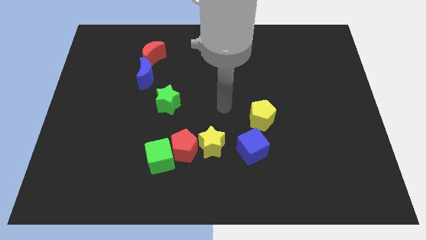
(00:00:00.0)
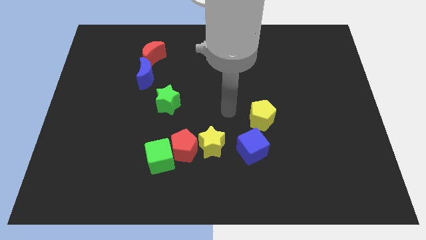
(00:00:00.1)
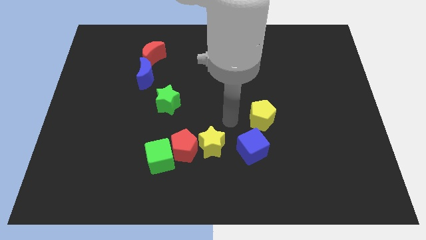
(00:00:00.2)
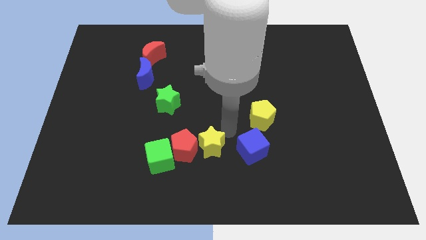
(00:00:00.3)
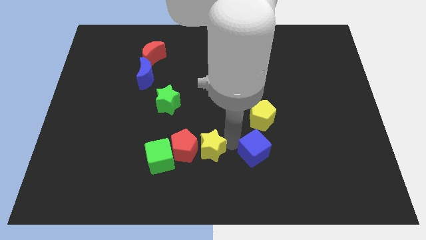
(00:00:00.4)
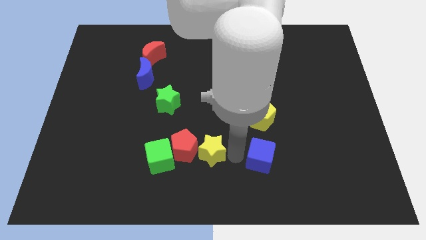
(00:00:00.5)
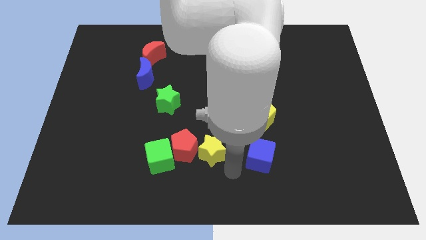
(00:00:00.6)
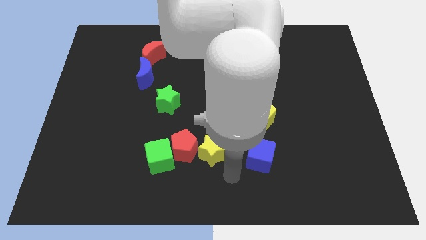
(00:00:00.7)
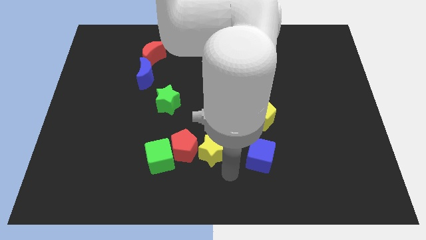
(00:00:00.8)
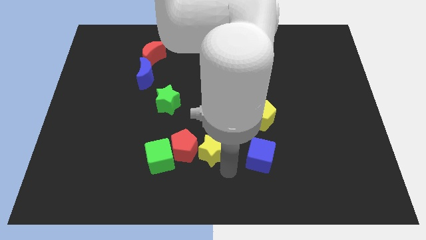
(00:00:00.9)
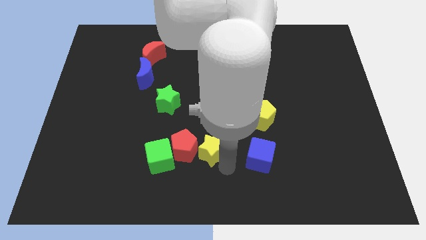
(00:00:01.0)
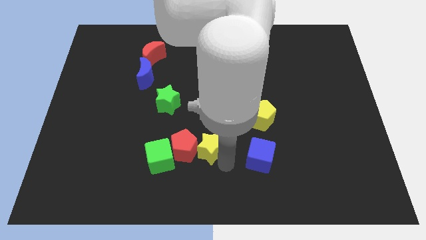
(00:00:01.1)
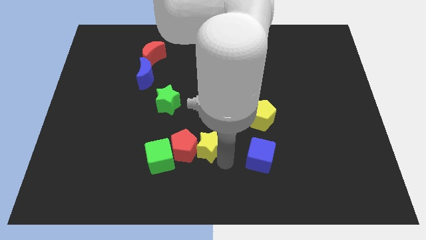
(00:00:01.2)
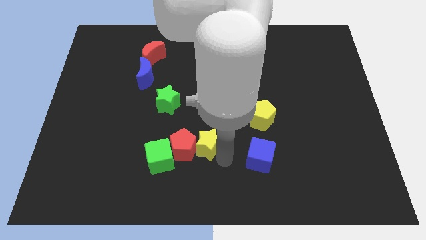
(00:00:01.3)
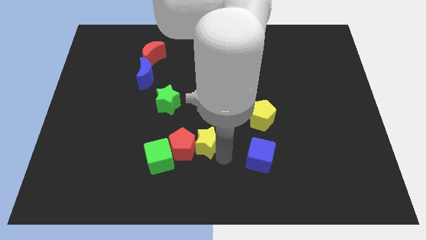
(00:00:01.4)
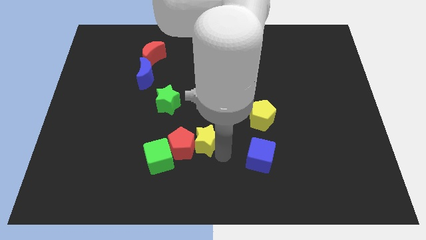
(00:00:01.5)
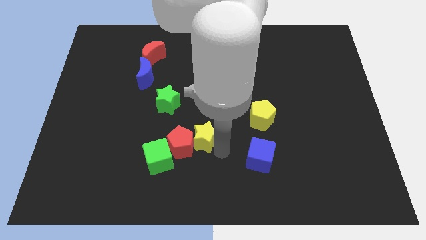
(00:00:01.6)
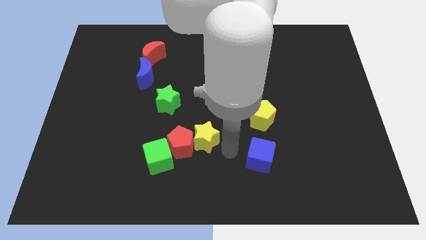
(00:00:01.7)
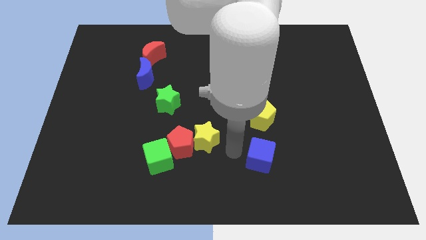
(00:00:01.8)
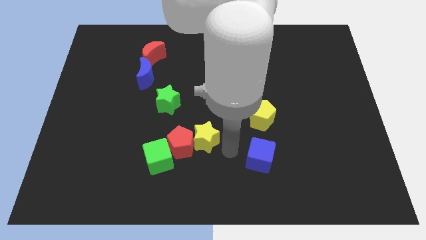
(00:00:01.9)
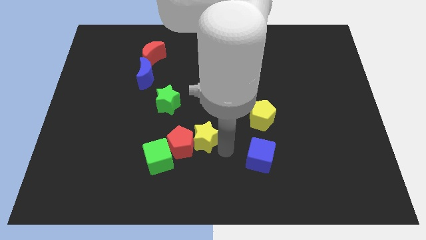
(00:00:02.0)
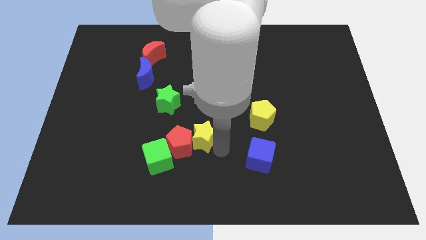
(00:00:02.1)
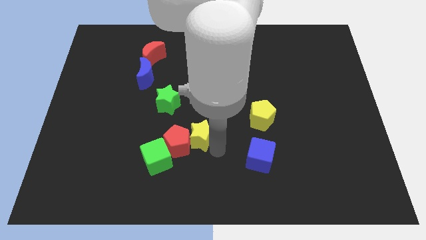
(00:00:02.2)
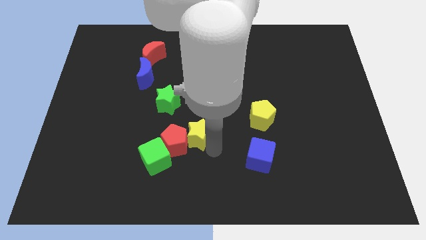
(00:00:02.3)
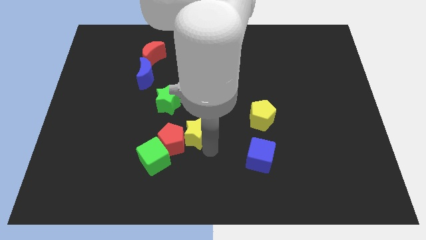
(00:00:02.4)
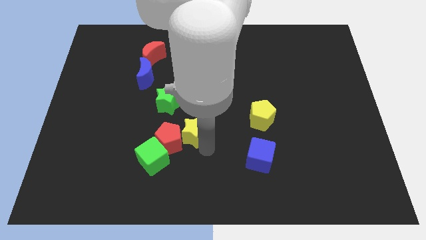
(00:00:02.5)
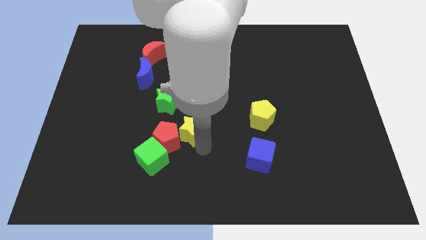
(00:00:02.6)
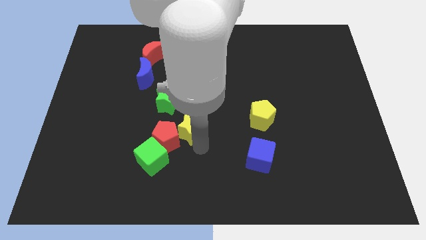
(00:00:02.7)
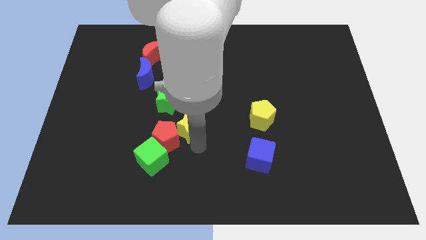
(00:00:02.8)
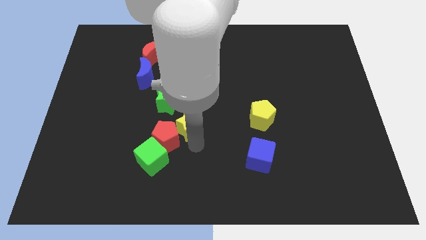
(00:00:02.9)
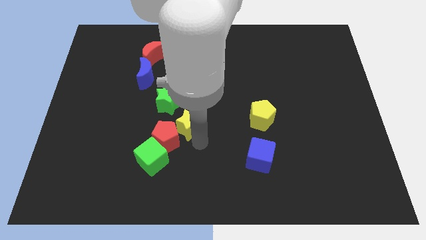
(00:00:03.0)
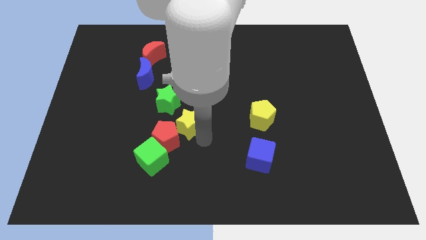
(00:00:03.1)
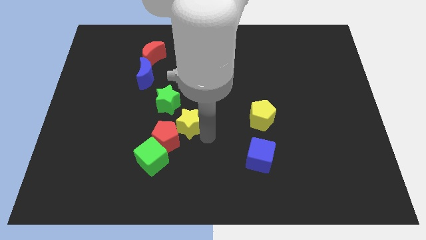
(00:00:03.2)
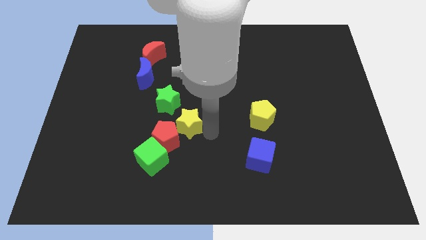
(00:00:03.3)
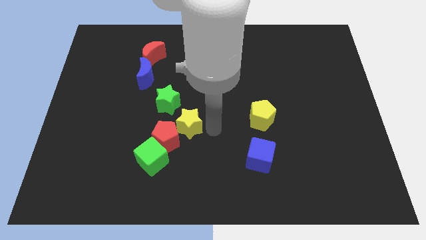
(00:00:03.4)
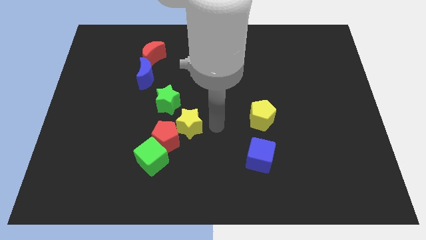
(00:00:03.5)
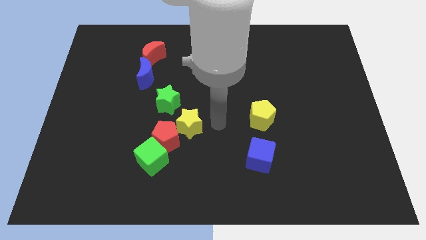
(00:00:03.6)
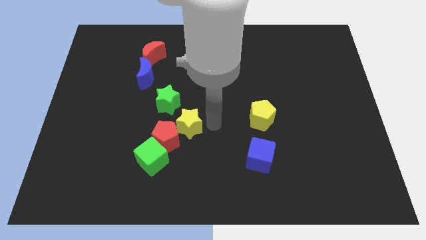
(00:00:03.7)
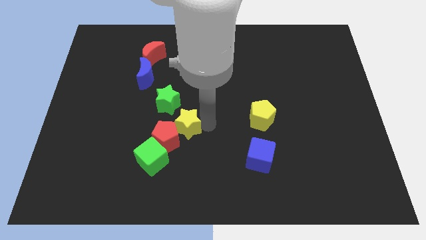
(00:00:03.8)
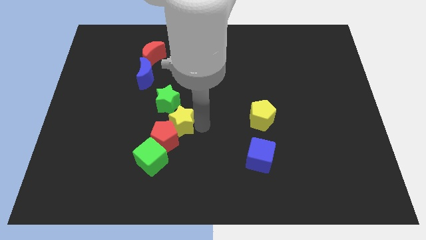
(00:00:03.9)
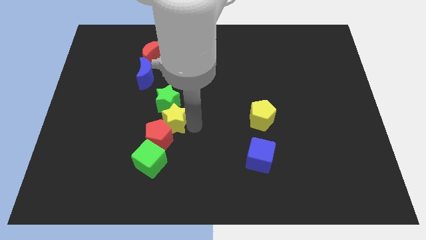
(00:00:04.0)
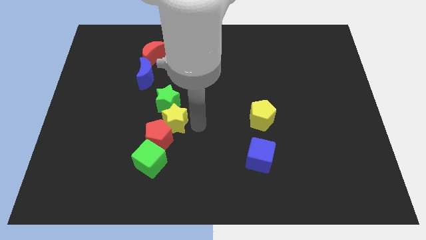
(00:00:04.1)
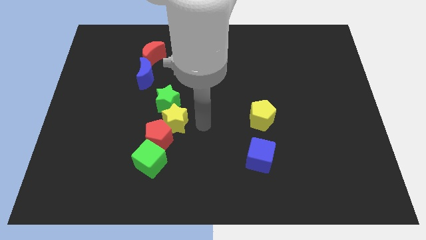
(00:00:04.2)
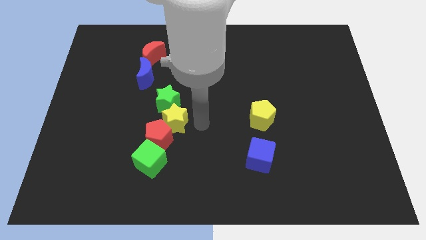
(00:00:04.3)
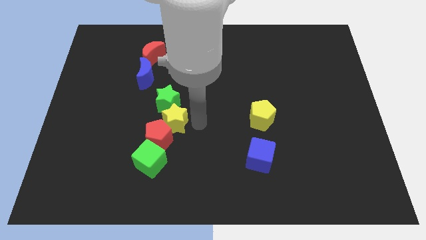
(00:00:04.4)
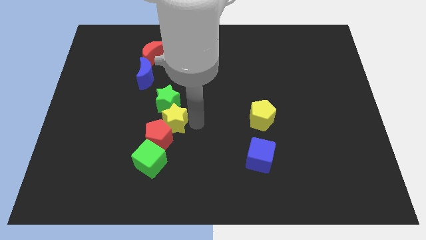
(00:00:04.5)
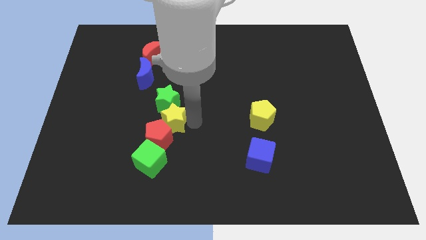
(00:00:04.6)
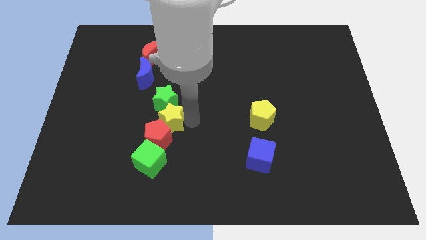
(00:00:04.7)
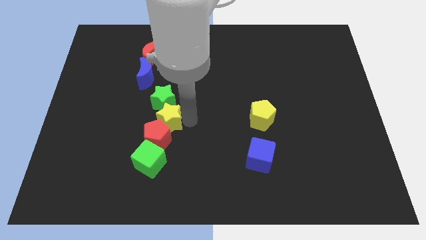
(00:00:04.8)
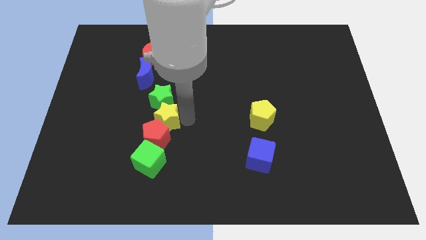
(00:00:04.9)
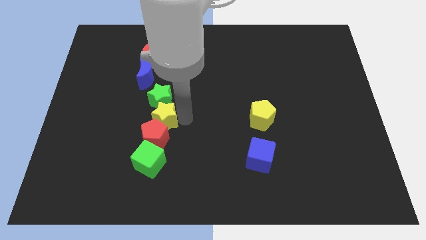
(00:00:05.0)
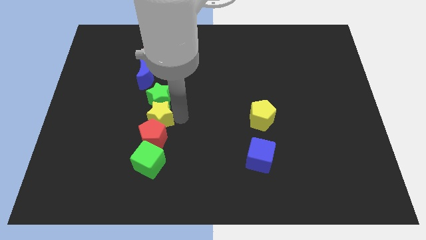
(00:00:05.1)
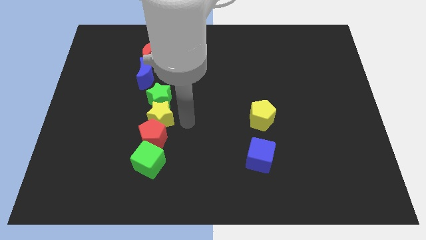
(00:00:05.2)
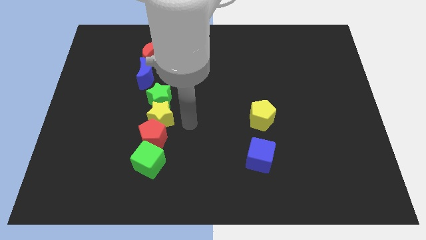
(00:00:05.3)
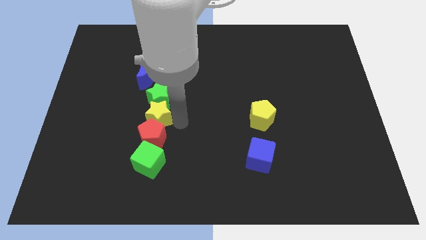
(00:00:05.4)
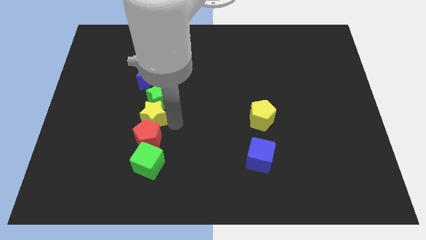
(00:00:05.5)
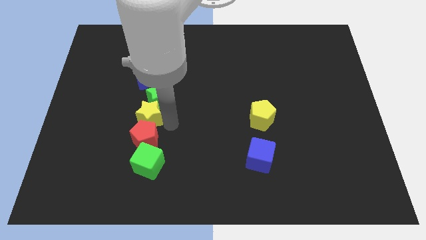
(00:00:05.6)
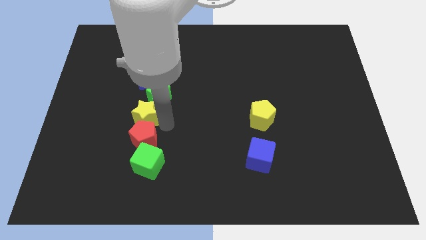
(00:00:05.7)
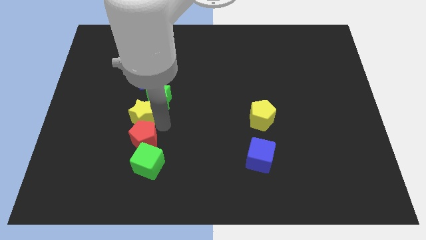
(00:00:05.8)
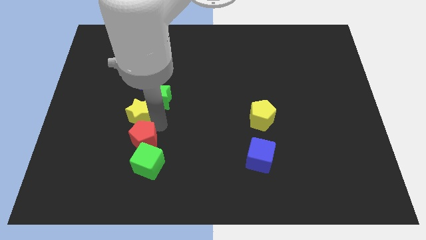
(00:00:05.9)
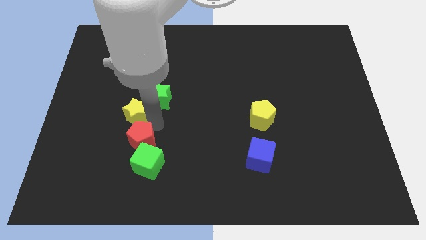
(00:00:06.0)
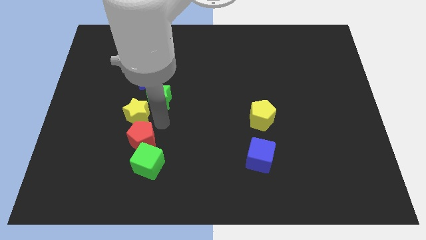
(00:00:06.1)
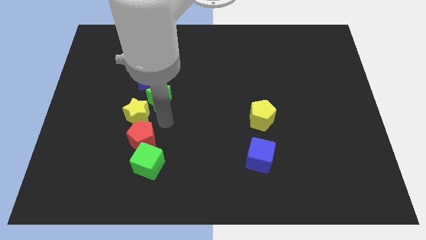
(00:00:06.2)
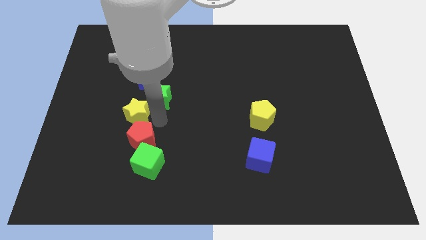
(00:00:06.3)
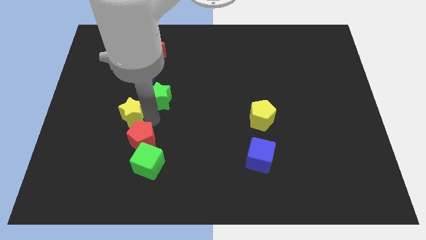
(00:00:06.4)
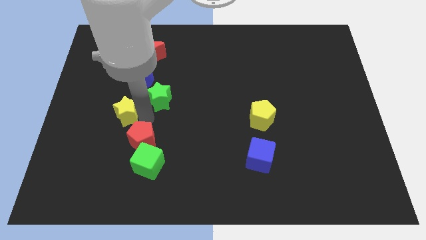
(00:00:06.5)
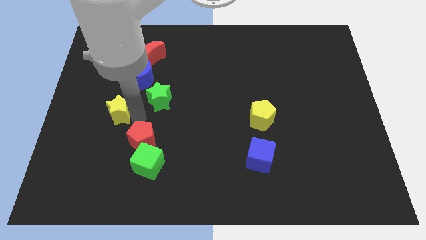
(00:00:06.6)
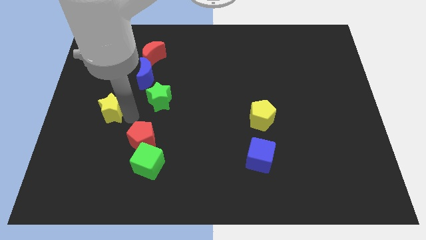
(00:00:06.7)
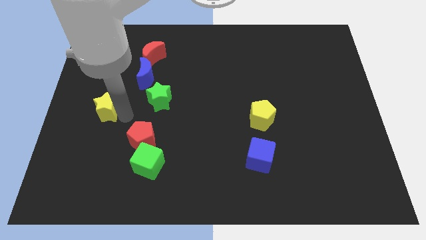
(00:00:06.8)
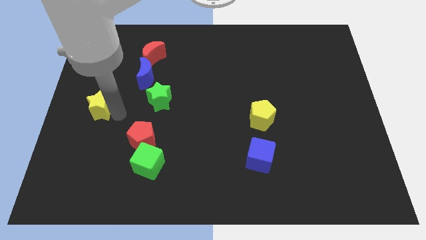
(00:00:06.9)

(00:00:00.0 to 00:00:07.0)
push the yellow star to the left side of the board
